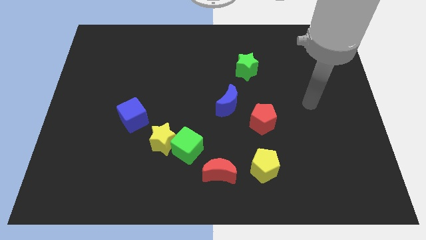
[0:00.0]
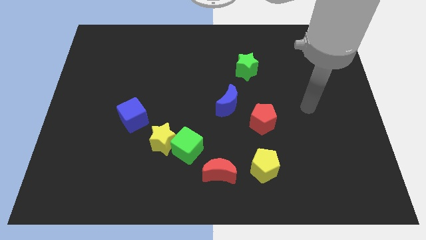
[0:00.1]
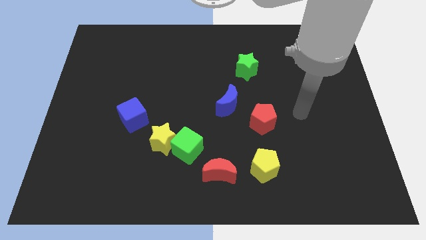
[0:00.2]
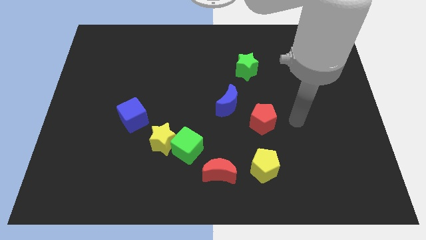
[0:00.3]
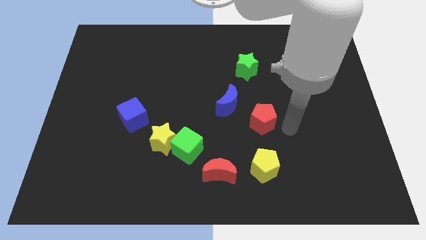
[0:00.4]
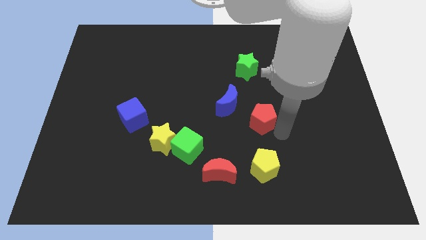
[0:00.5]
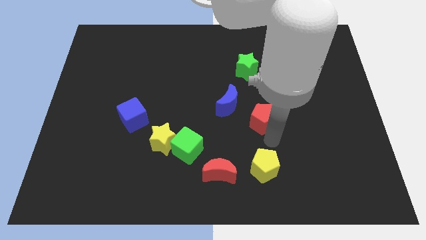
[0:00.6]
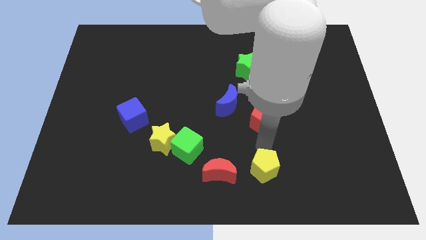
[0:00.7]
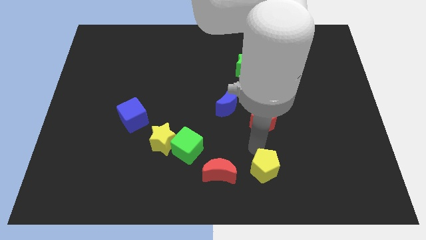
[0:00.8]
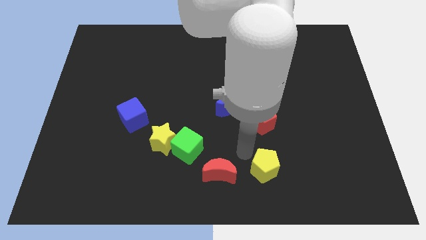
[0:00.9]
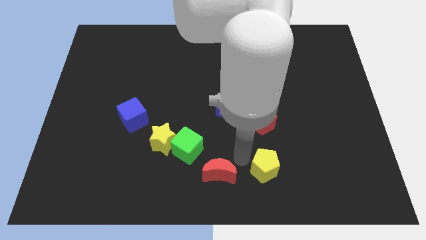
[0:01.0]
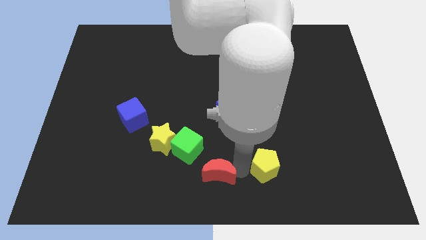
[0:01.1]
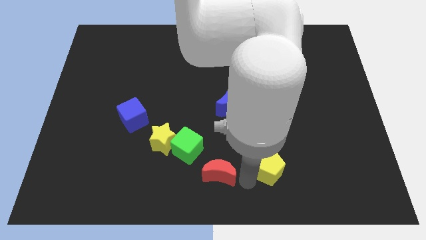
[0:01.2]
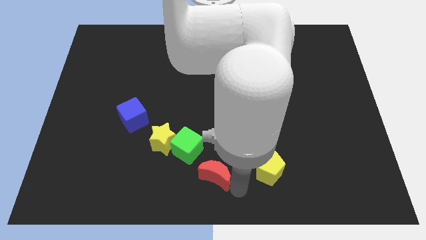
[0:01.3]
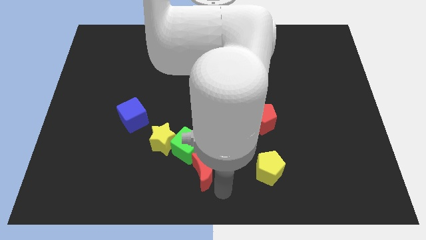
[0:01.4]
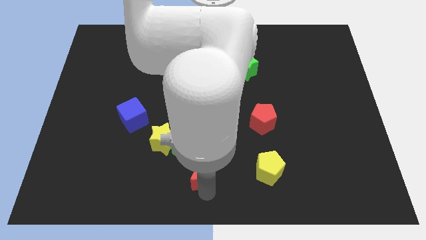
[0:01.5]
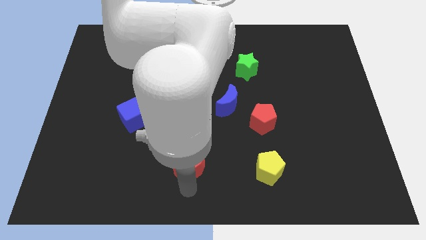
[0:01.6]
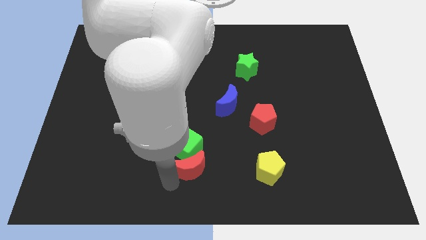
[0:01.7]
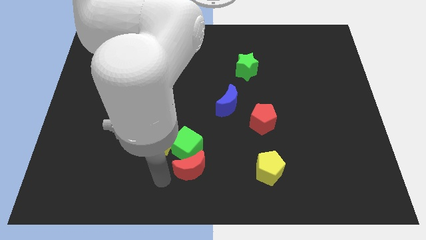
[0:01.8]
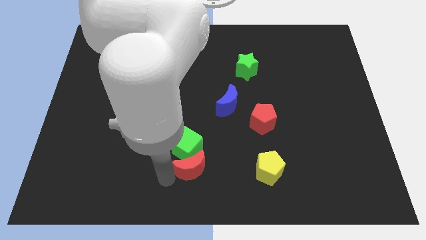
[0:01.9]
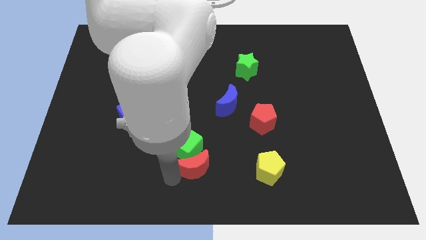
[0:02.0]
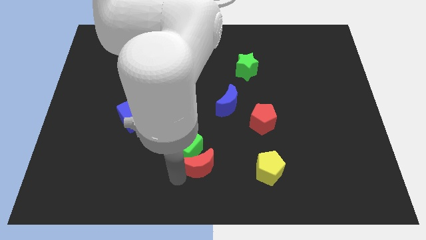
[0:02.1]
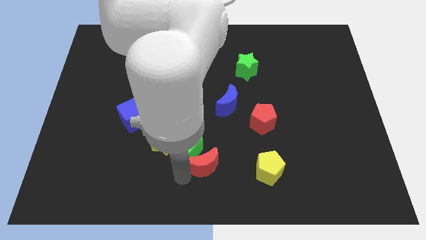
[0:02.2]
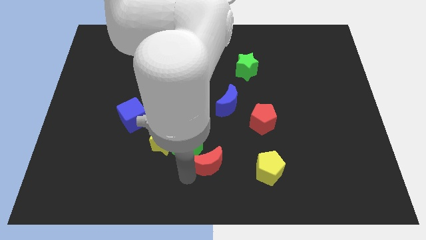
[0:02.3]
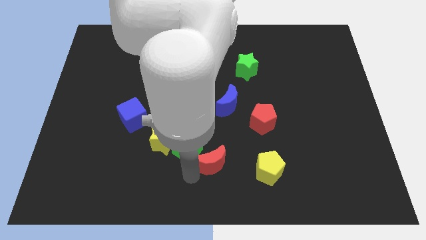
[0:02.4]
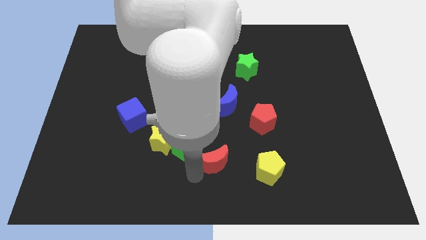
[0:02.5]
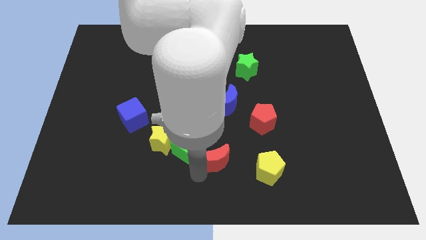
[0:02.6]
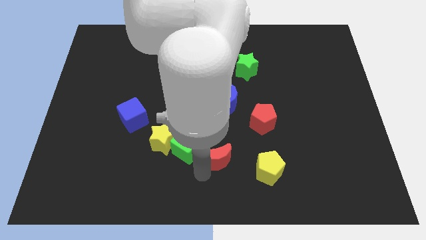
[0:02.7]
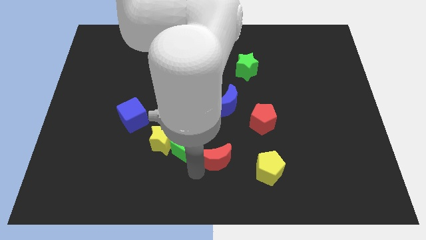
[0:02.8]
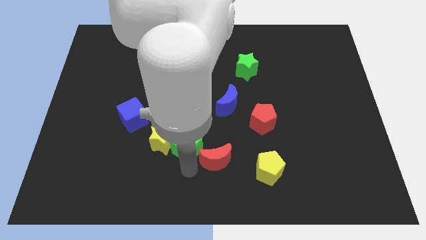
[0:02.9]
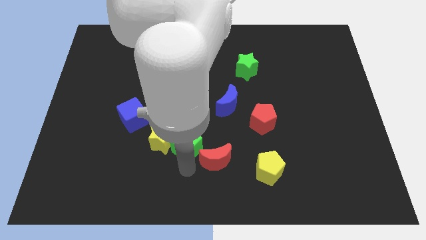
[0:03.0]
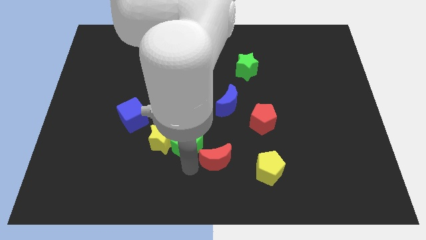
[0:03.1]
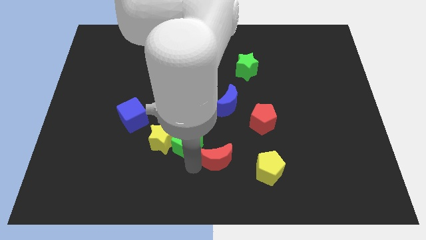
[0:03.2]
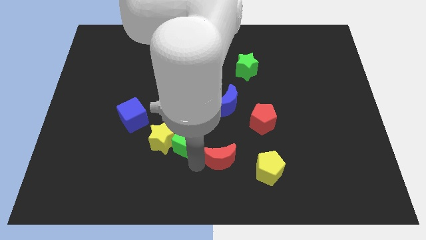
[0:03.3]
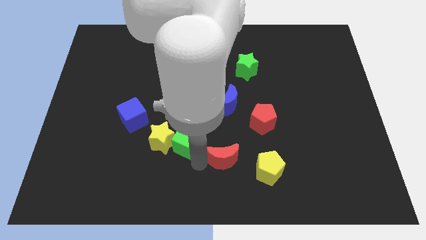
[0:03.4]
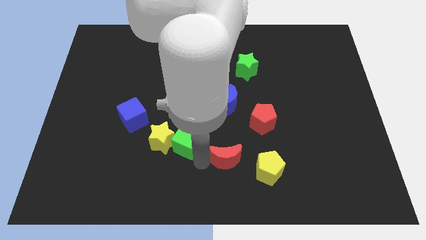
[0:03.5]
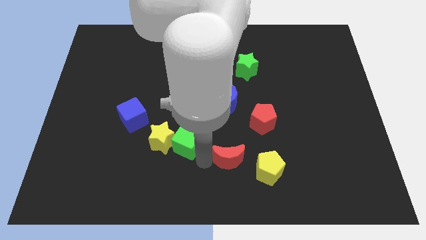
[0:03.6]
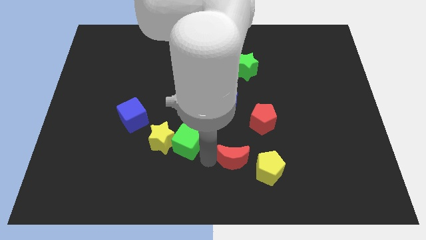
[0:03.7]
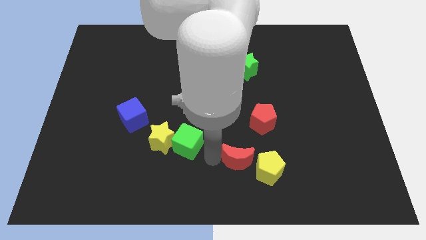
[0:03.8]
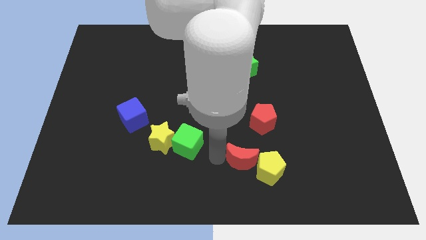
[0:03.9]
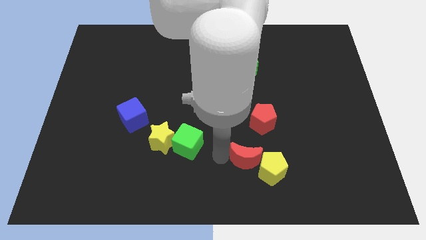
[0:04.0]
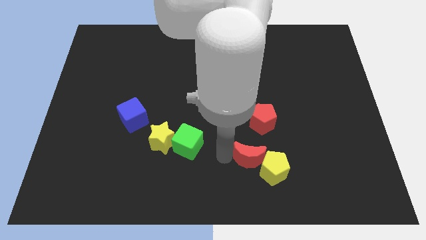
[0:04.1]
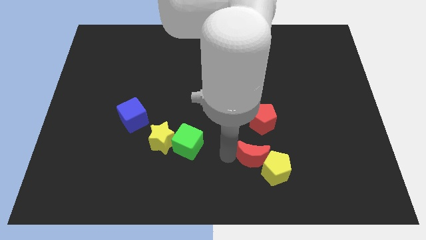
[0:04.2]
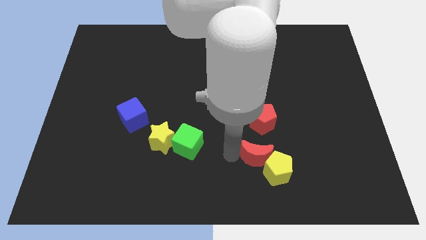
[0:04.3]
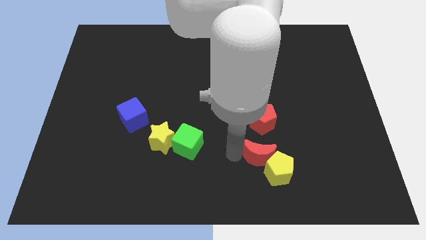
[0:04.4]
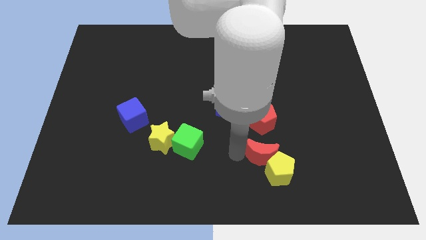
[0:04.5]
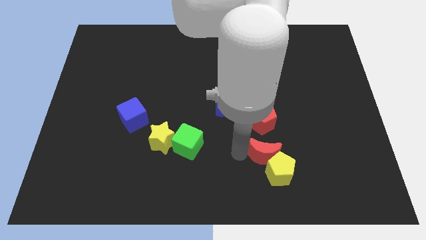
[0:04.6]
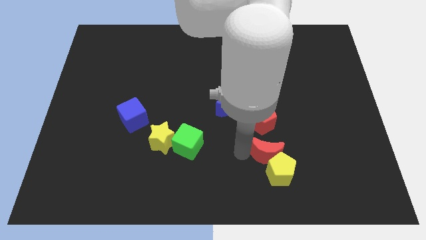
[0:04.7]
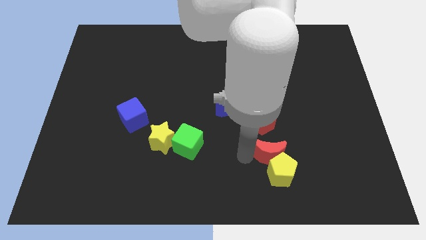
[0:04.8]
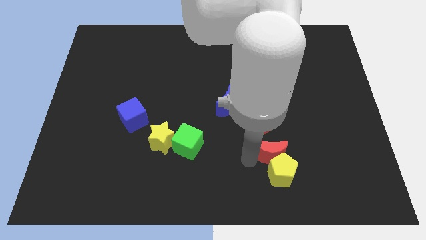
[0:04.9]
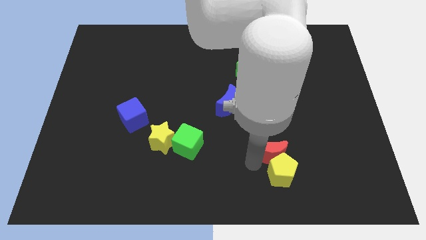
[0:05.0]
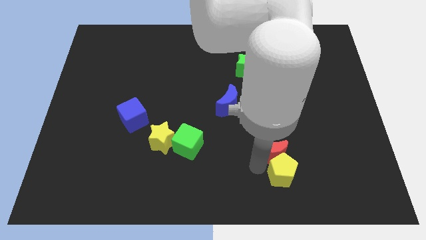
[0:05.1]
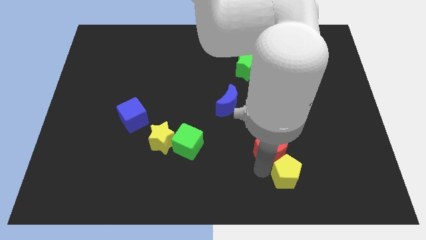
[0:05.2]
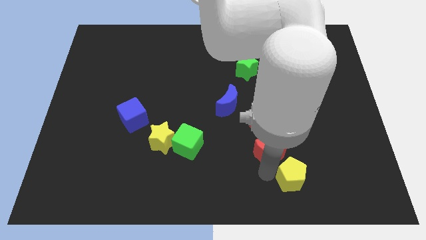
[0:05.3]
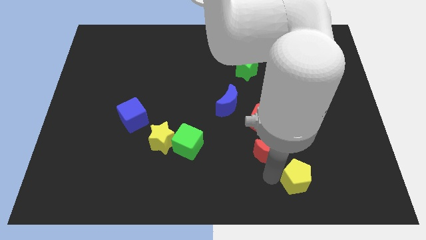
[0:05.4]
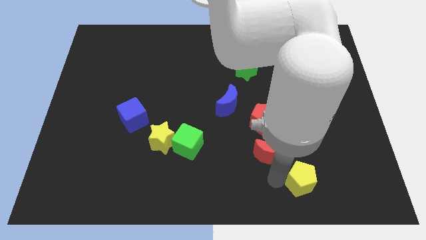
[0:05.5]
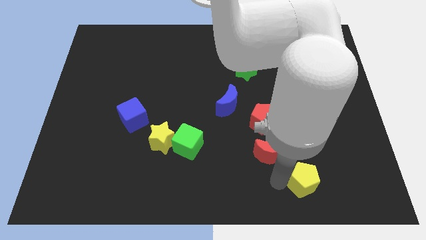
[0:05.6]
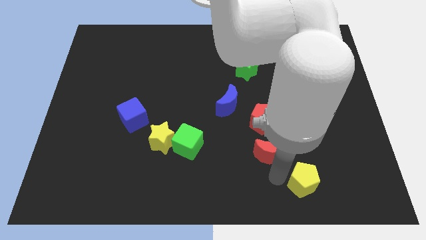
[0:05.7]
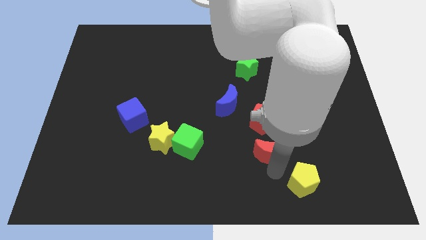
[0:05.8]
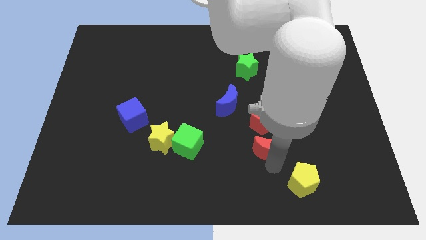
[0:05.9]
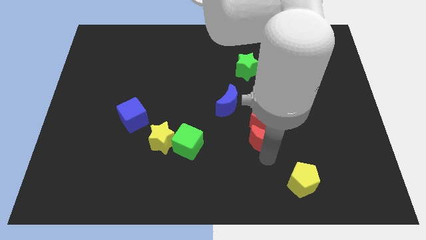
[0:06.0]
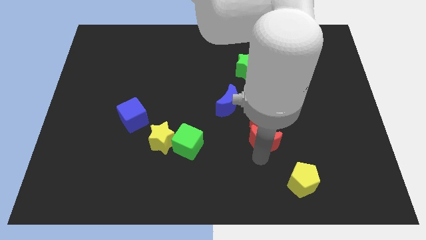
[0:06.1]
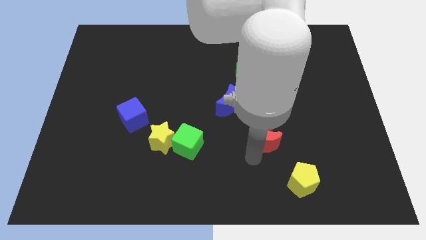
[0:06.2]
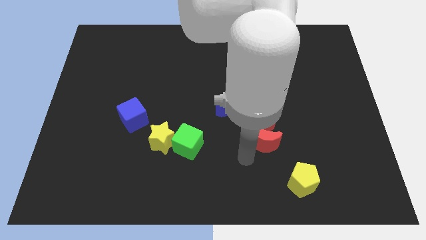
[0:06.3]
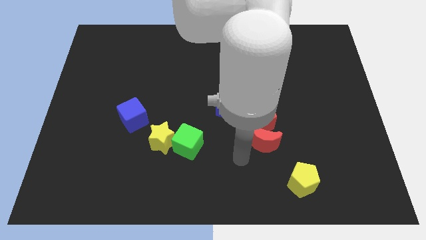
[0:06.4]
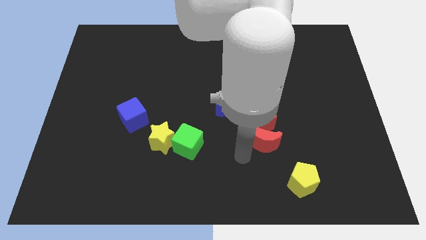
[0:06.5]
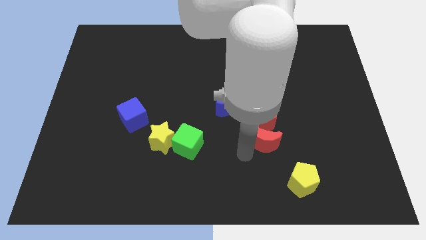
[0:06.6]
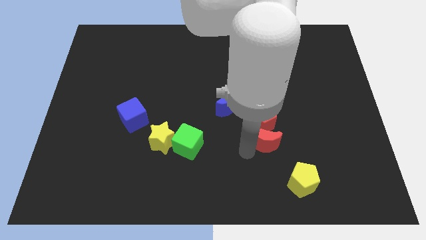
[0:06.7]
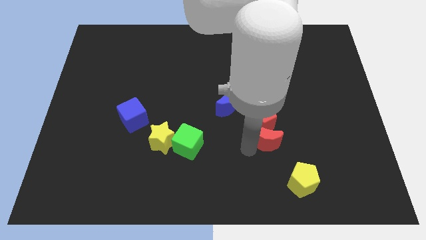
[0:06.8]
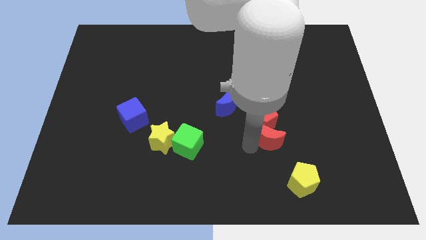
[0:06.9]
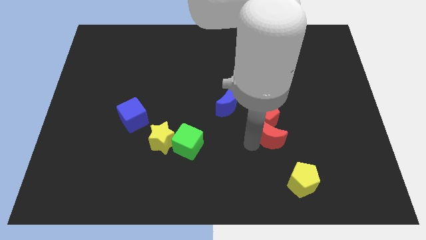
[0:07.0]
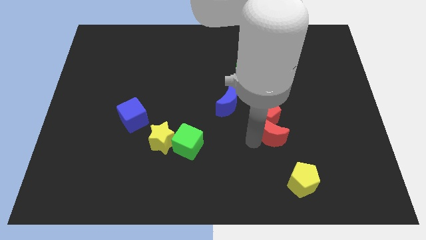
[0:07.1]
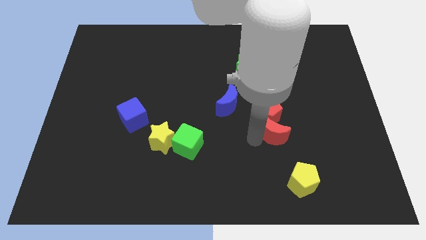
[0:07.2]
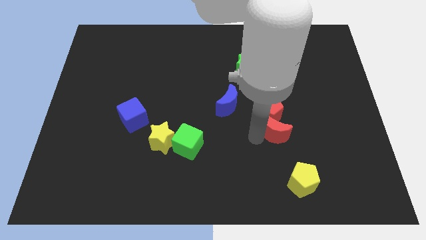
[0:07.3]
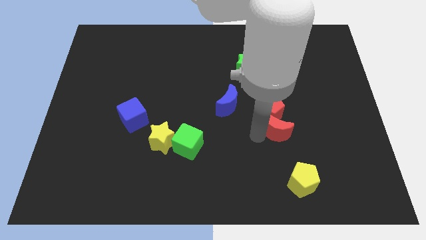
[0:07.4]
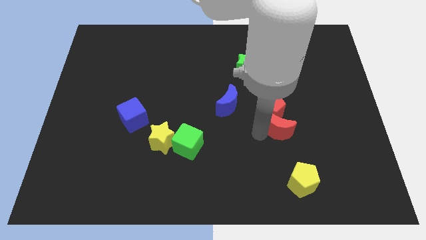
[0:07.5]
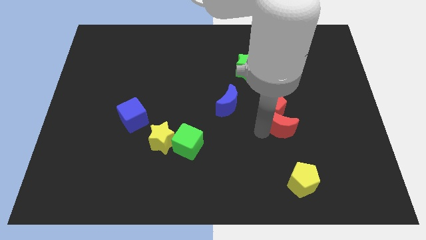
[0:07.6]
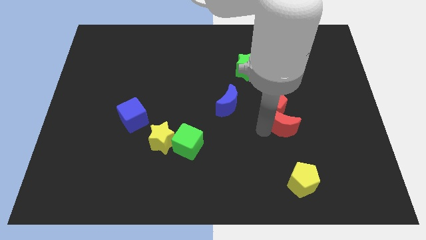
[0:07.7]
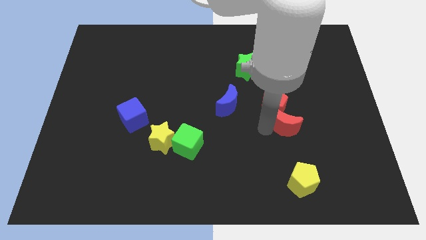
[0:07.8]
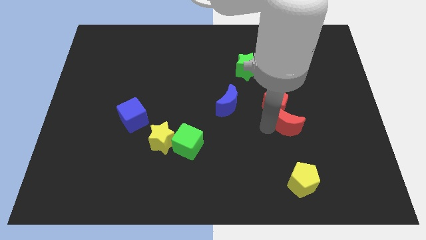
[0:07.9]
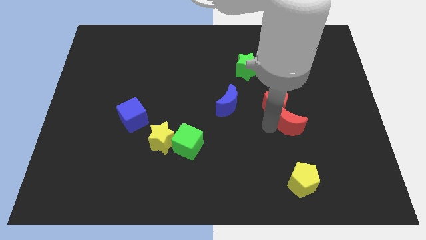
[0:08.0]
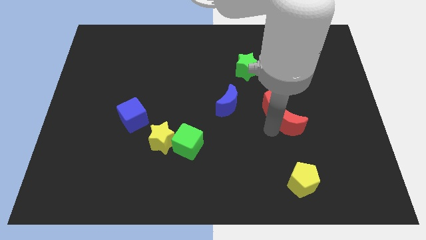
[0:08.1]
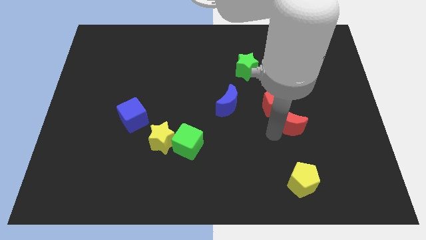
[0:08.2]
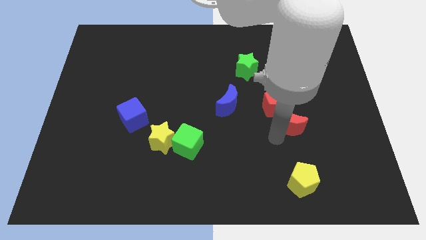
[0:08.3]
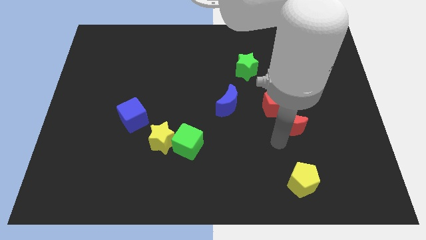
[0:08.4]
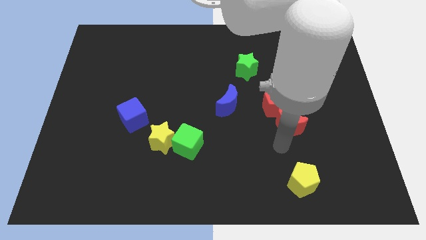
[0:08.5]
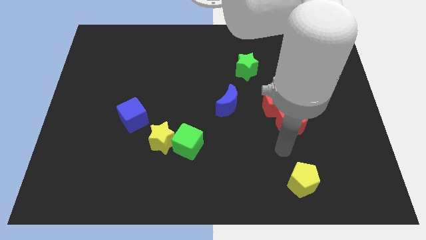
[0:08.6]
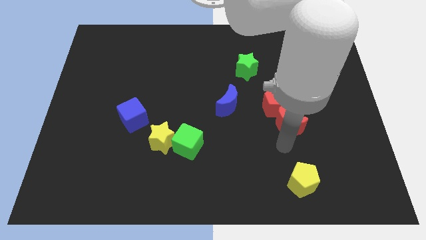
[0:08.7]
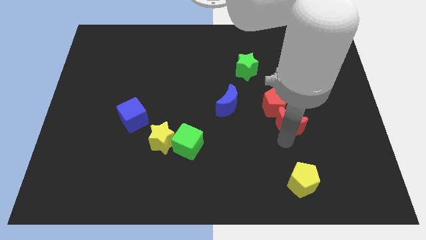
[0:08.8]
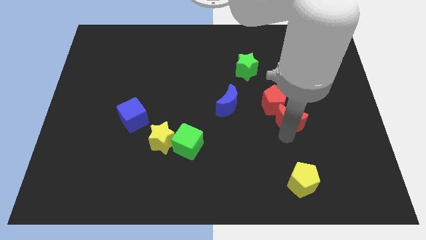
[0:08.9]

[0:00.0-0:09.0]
move the red moon upwards and right
